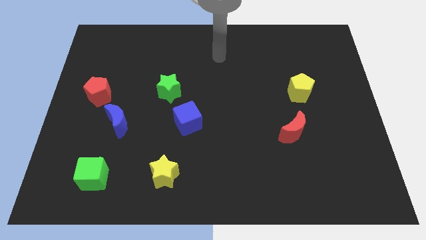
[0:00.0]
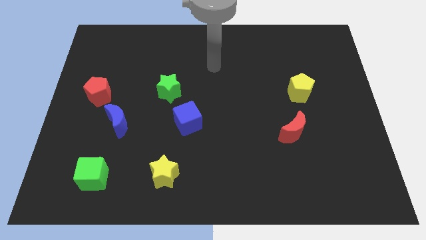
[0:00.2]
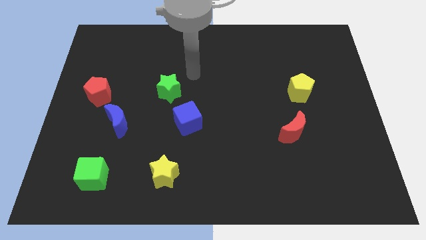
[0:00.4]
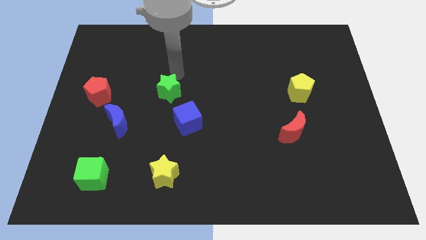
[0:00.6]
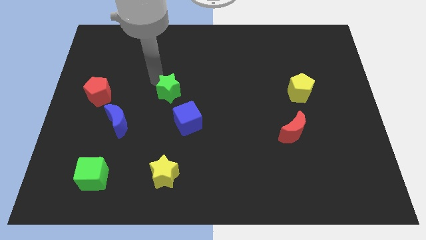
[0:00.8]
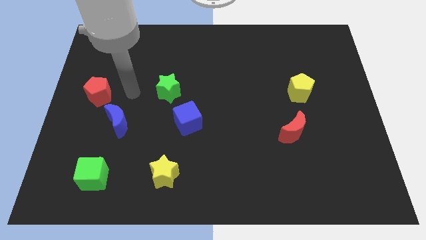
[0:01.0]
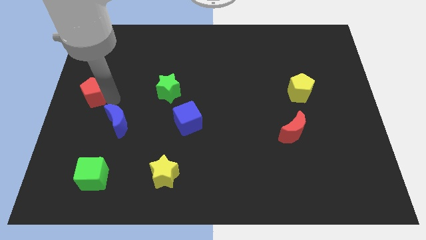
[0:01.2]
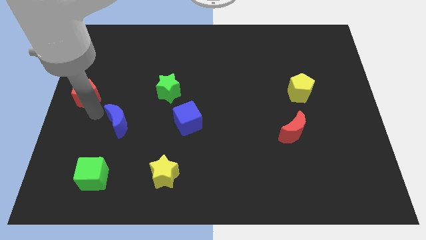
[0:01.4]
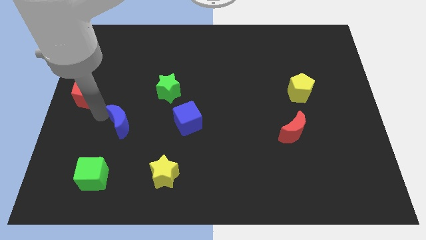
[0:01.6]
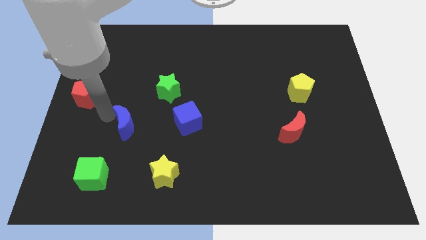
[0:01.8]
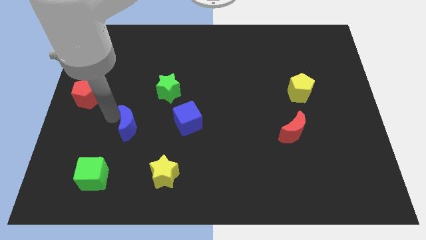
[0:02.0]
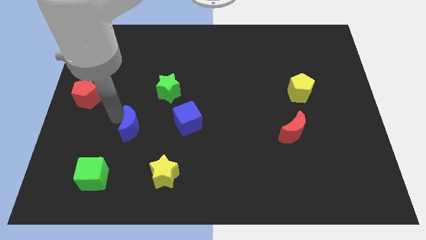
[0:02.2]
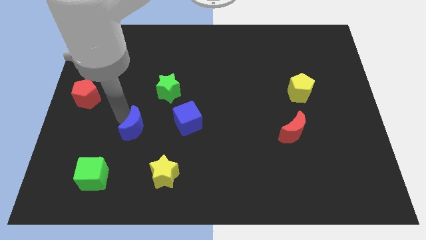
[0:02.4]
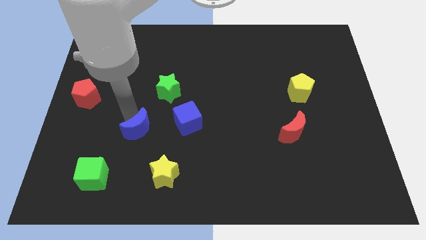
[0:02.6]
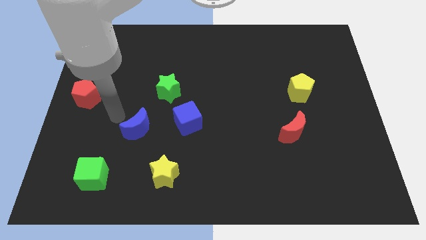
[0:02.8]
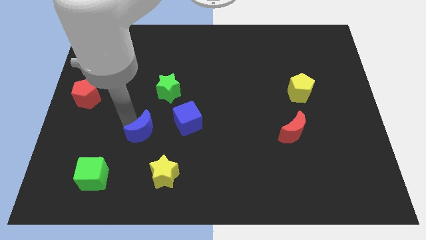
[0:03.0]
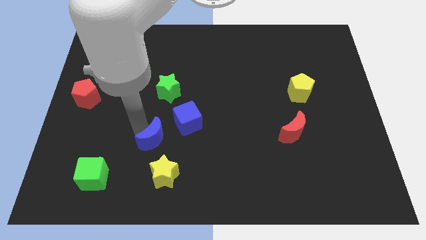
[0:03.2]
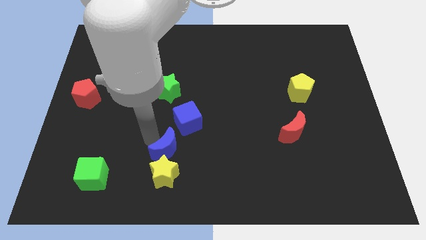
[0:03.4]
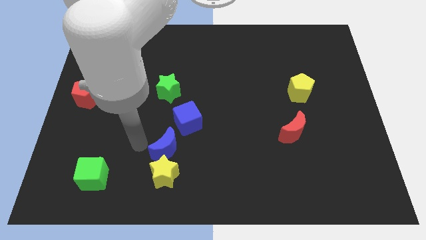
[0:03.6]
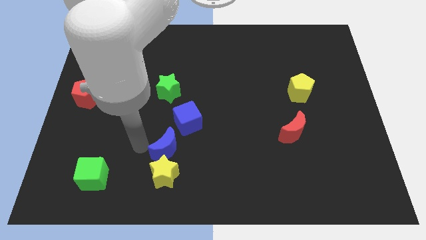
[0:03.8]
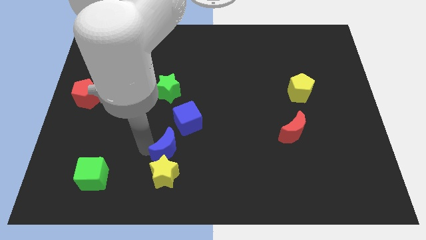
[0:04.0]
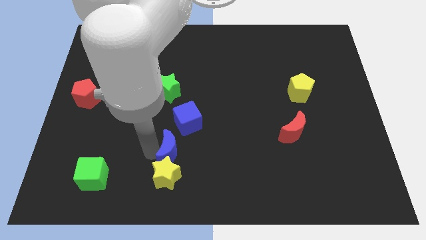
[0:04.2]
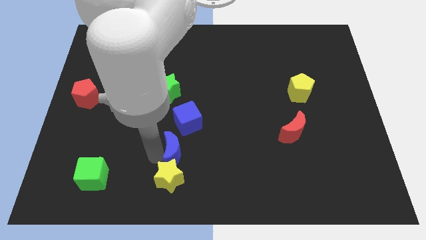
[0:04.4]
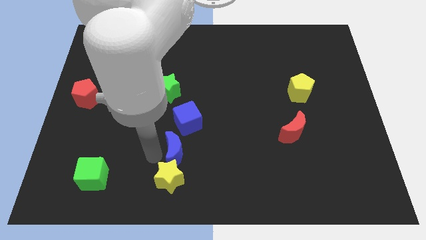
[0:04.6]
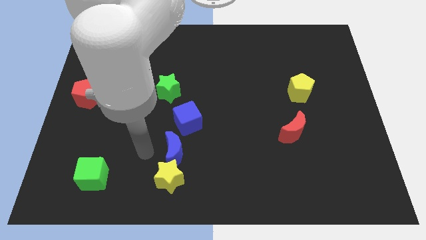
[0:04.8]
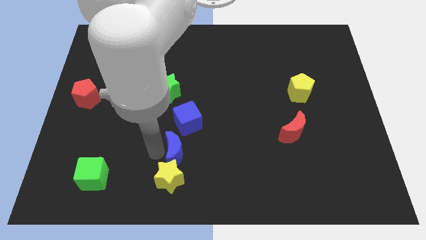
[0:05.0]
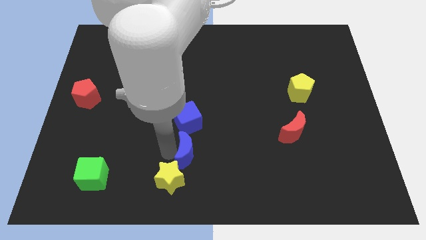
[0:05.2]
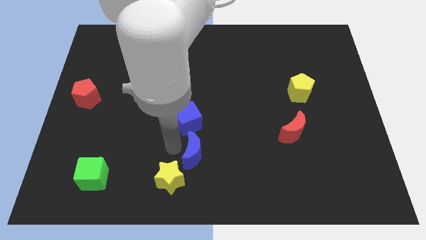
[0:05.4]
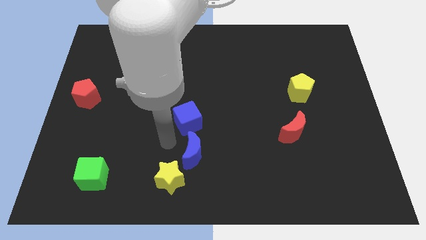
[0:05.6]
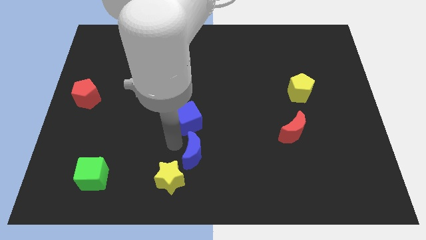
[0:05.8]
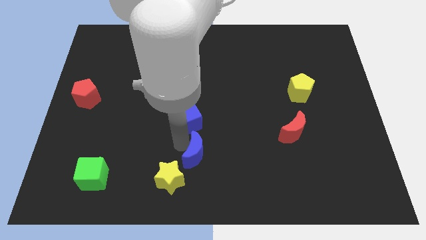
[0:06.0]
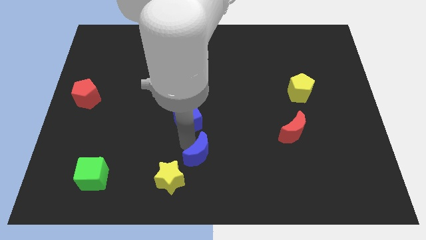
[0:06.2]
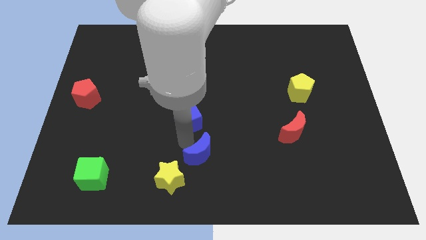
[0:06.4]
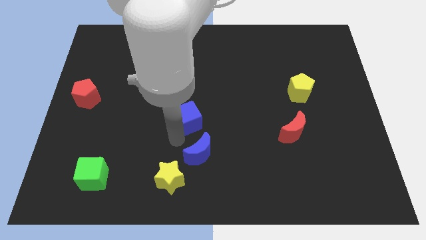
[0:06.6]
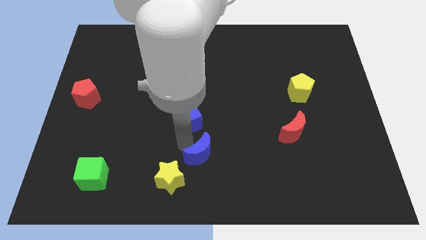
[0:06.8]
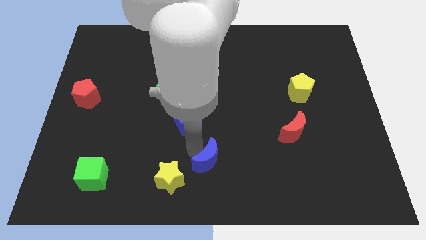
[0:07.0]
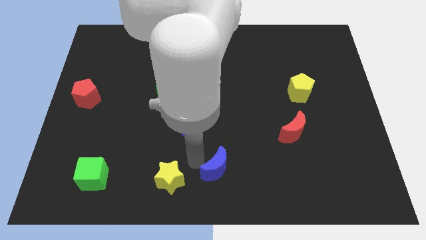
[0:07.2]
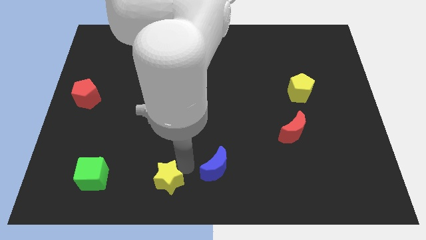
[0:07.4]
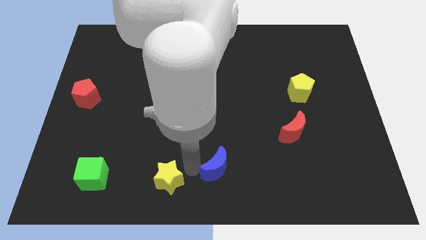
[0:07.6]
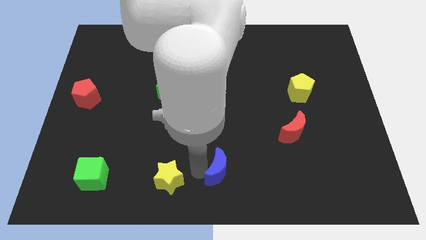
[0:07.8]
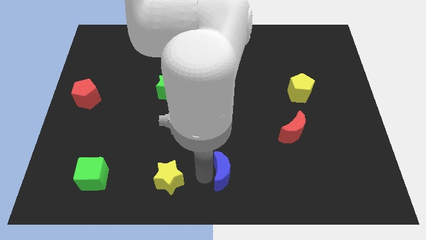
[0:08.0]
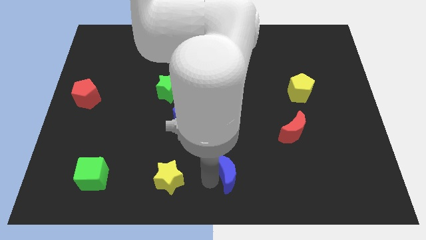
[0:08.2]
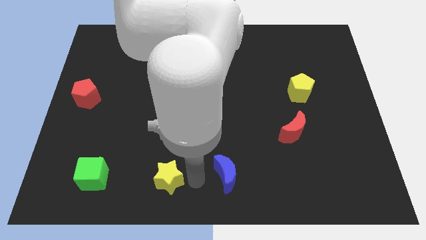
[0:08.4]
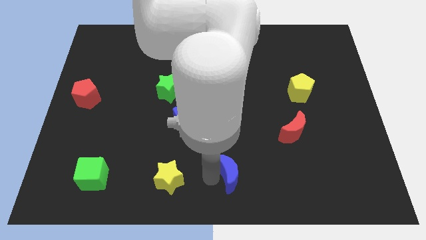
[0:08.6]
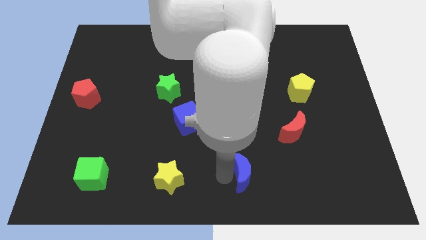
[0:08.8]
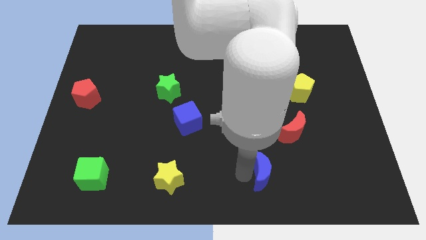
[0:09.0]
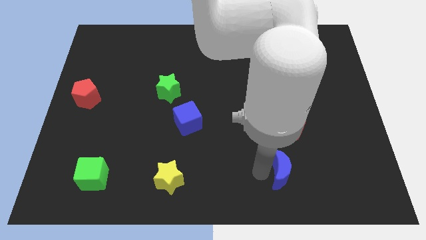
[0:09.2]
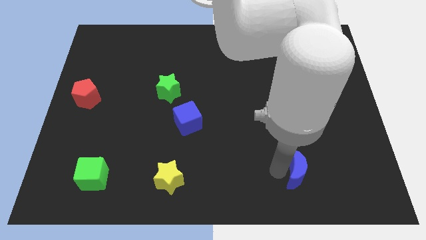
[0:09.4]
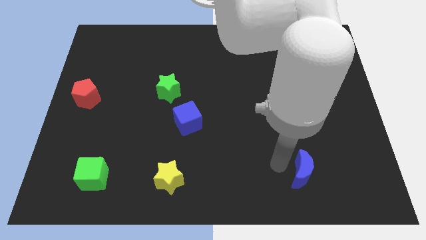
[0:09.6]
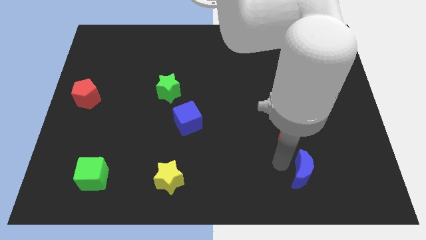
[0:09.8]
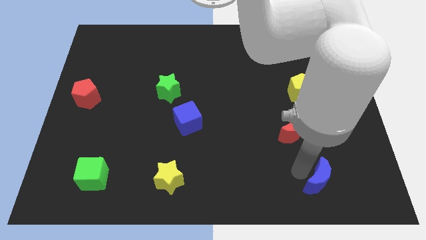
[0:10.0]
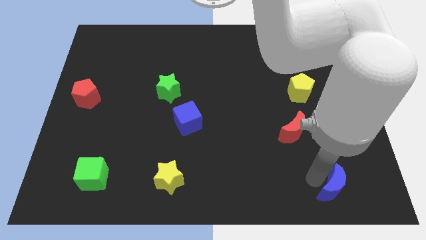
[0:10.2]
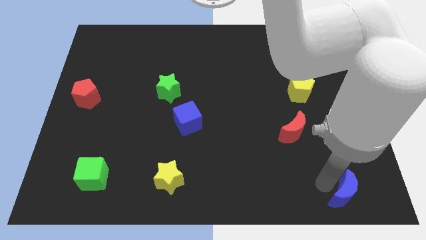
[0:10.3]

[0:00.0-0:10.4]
put the blue moon to the bottom right corner

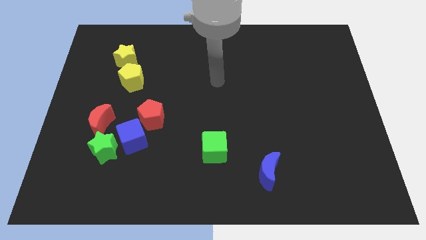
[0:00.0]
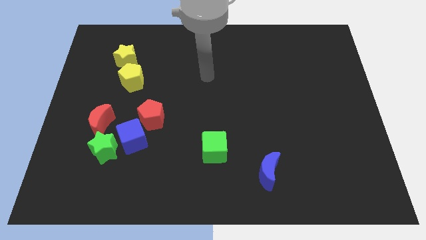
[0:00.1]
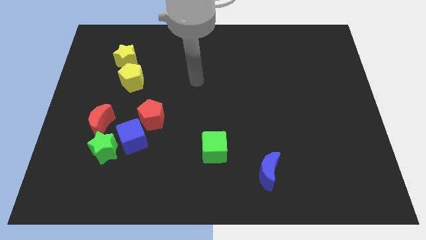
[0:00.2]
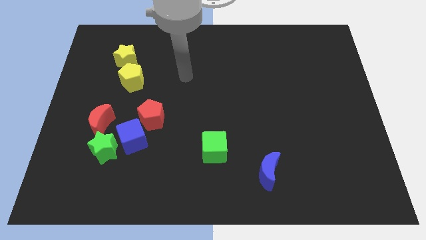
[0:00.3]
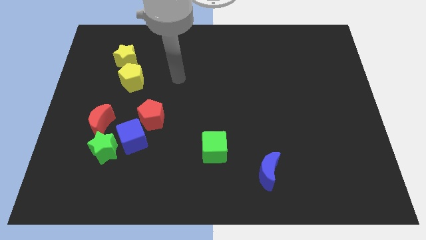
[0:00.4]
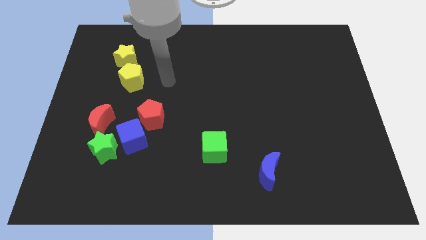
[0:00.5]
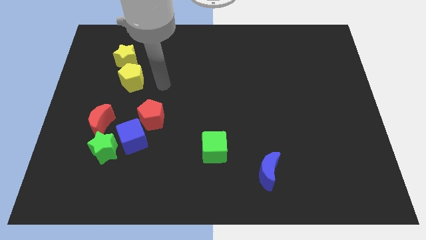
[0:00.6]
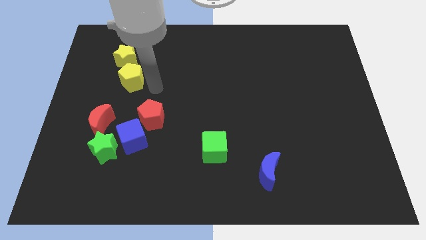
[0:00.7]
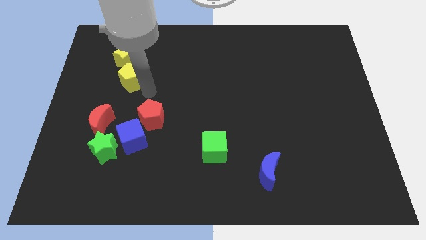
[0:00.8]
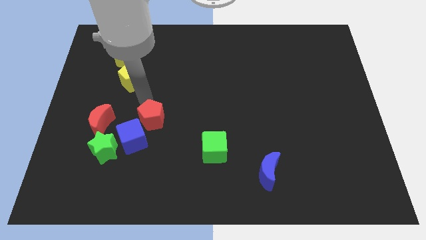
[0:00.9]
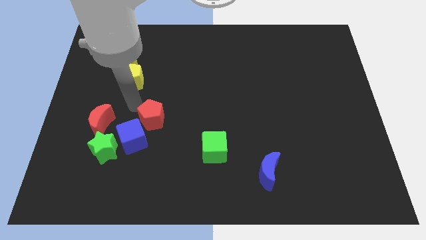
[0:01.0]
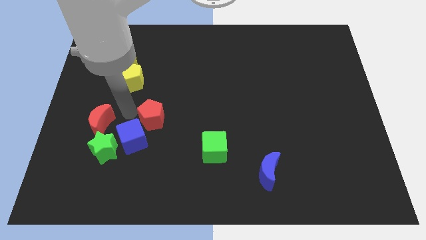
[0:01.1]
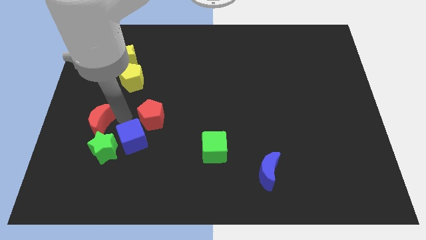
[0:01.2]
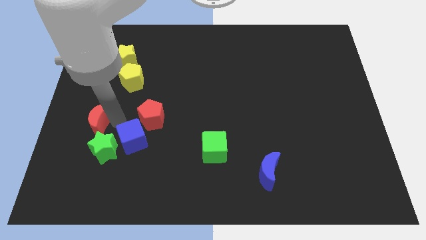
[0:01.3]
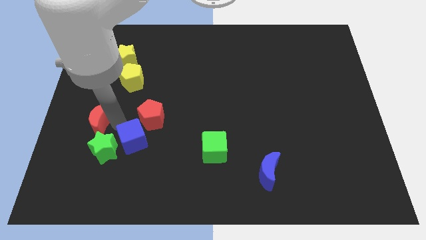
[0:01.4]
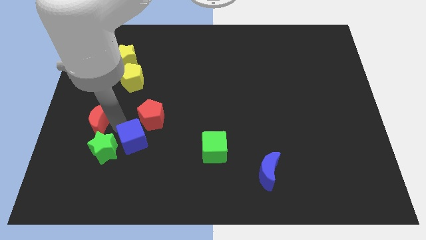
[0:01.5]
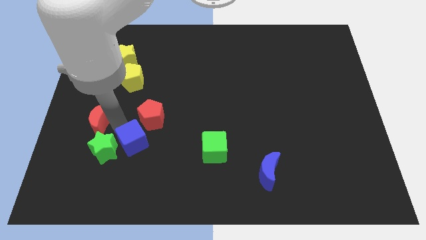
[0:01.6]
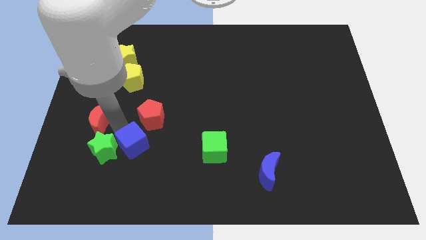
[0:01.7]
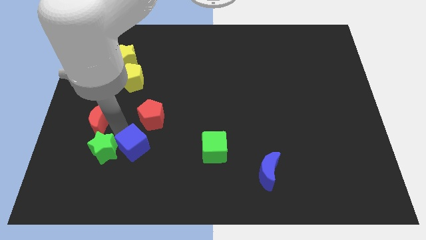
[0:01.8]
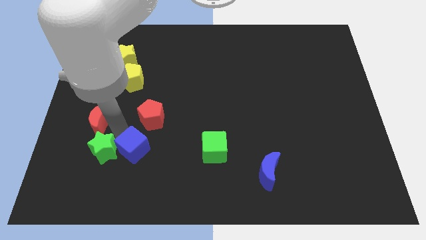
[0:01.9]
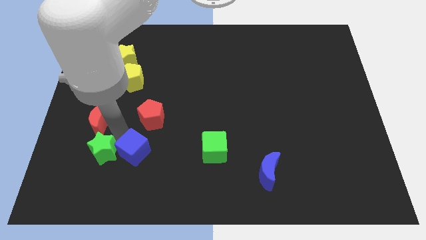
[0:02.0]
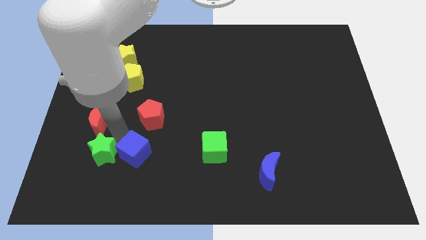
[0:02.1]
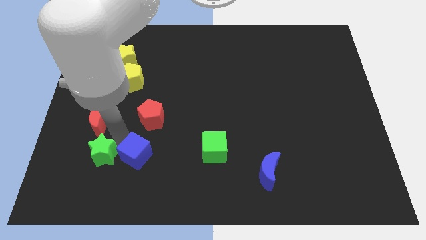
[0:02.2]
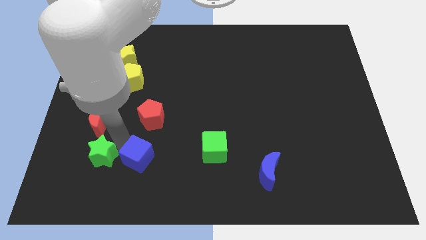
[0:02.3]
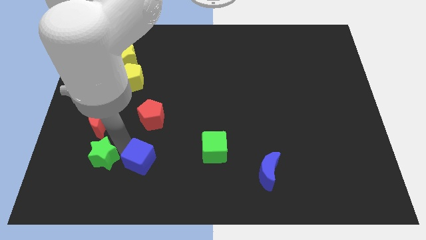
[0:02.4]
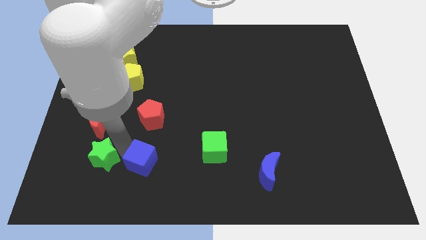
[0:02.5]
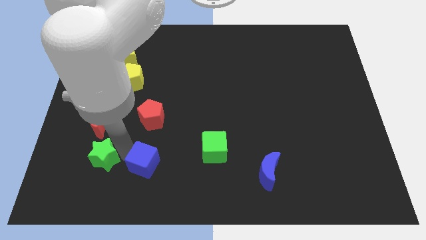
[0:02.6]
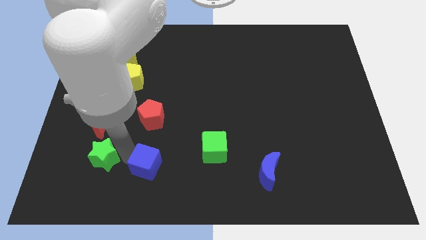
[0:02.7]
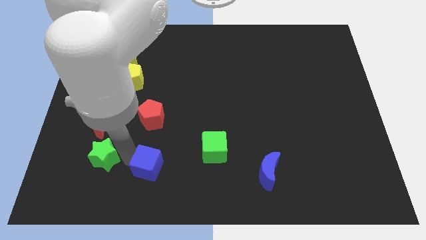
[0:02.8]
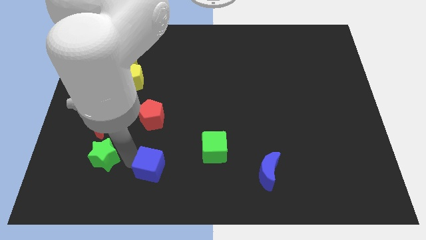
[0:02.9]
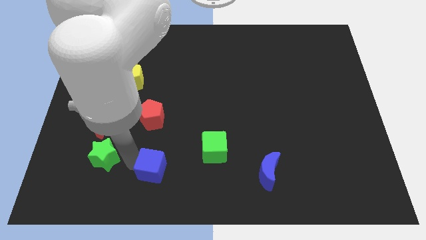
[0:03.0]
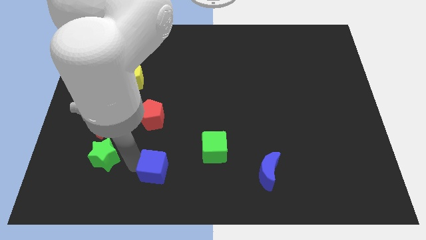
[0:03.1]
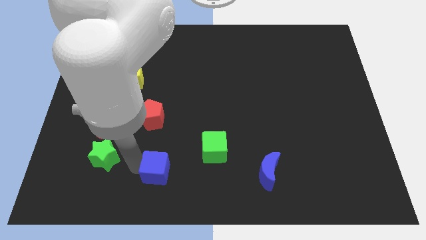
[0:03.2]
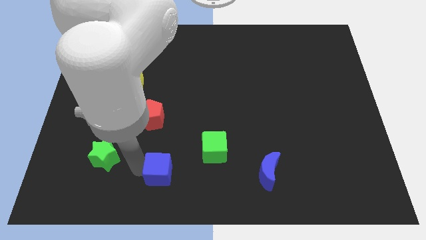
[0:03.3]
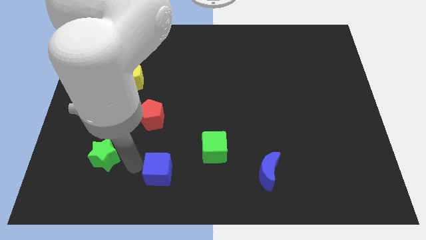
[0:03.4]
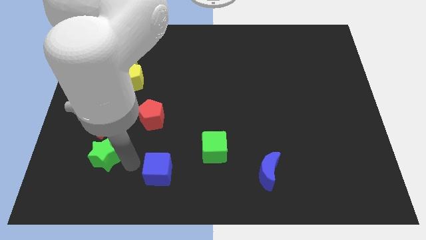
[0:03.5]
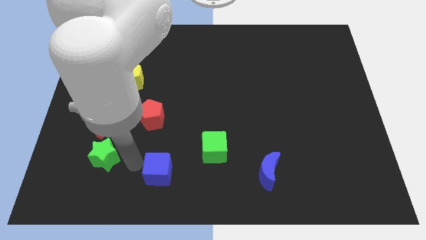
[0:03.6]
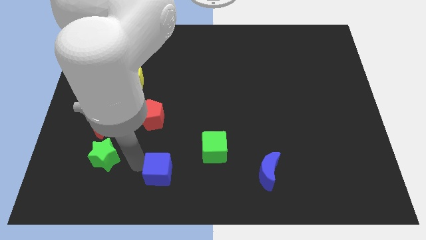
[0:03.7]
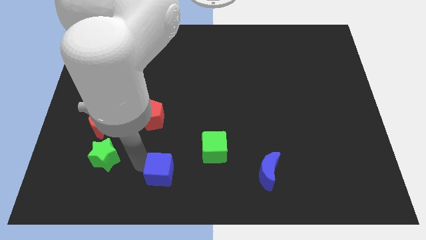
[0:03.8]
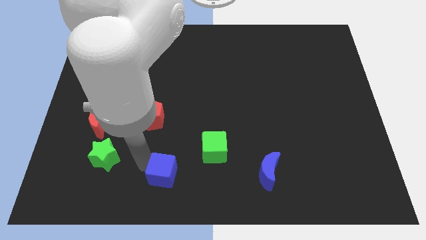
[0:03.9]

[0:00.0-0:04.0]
move the blue cube to the bottom side
